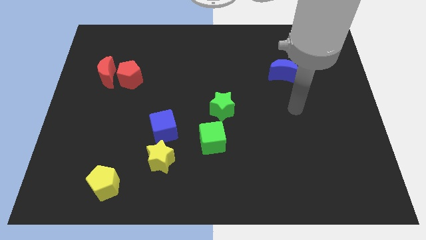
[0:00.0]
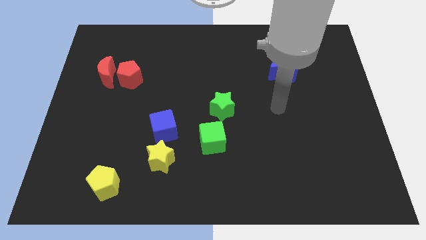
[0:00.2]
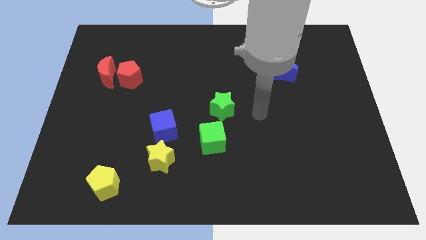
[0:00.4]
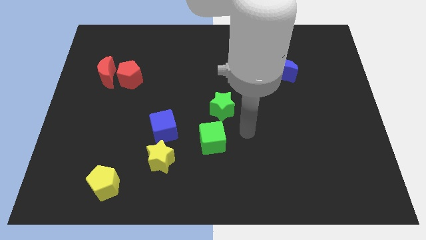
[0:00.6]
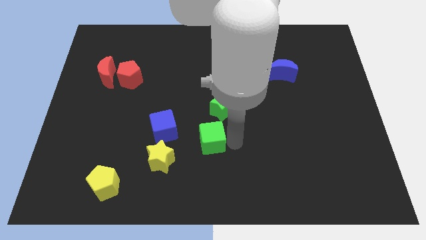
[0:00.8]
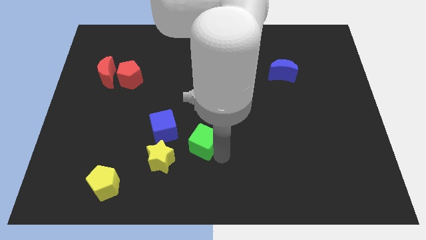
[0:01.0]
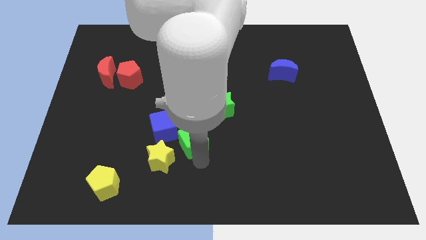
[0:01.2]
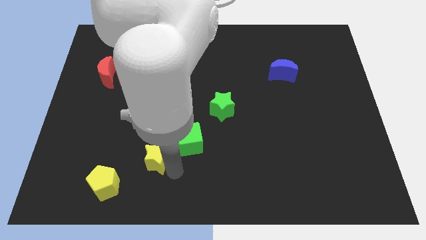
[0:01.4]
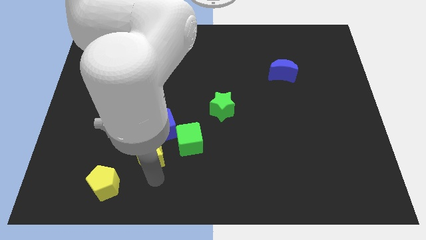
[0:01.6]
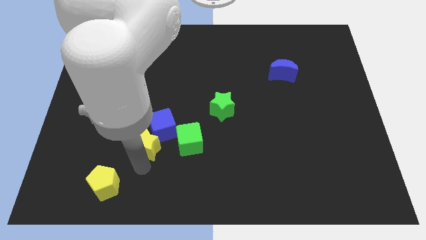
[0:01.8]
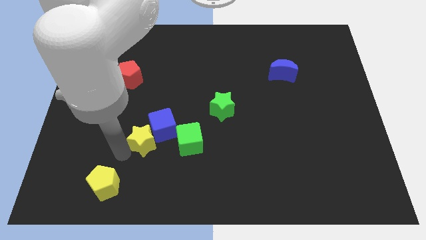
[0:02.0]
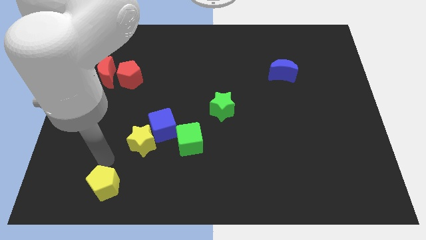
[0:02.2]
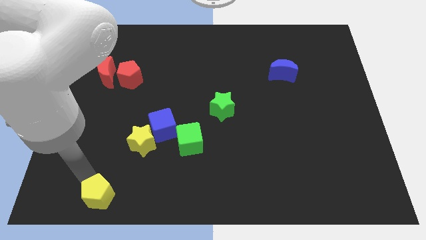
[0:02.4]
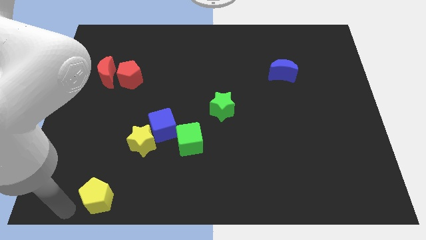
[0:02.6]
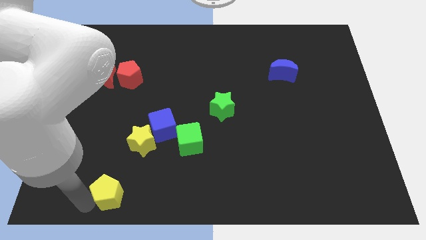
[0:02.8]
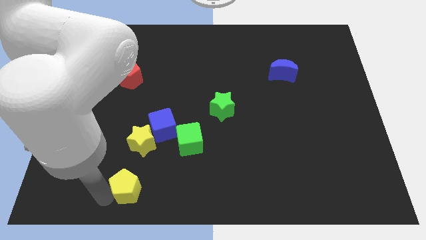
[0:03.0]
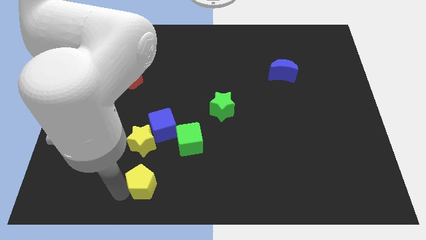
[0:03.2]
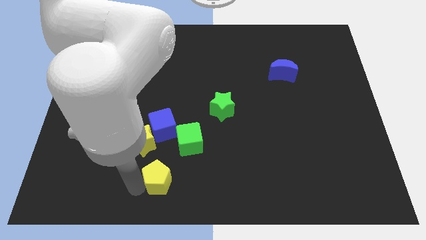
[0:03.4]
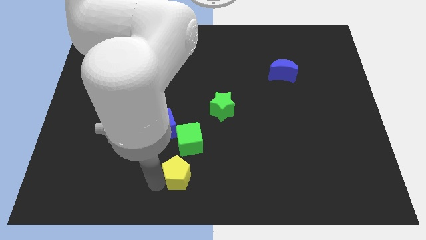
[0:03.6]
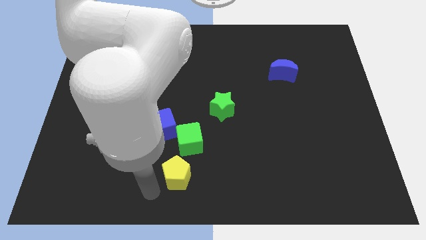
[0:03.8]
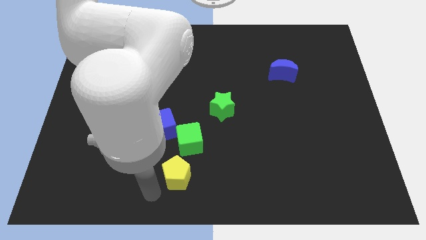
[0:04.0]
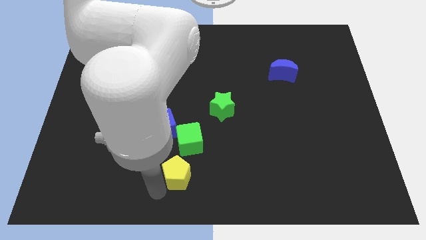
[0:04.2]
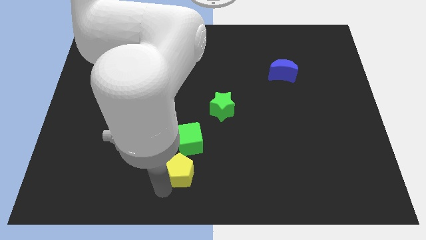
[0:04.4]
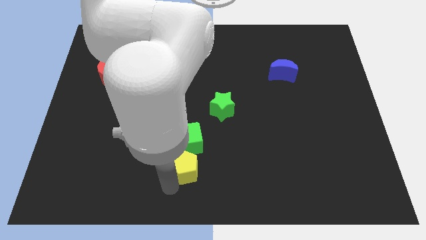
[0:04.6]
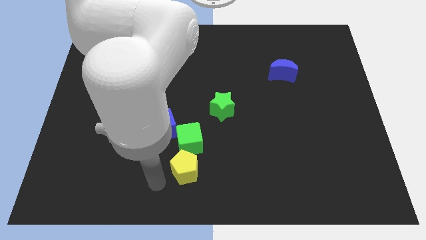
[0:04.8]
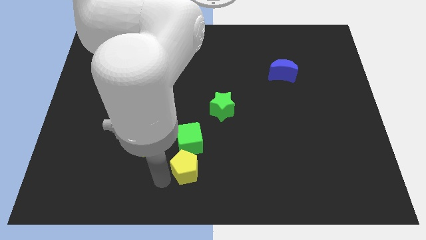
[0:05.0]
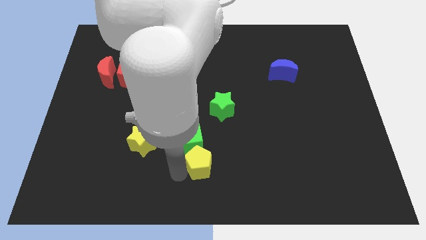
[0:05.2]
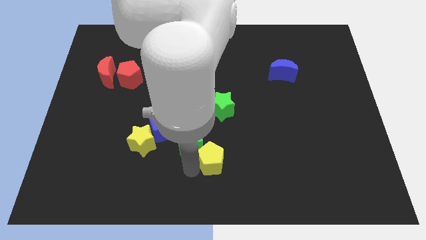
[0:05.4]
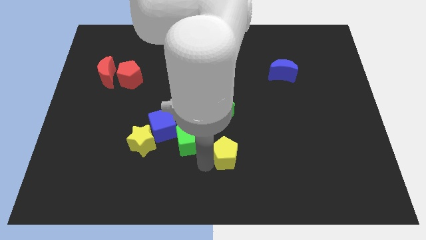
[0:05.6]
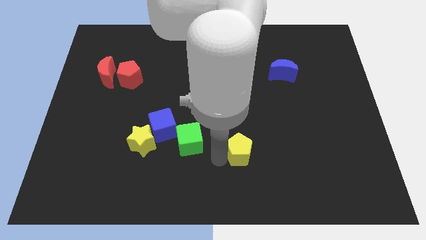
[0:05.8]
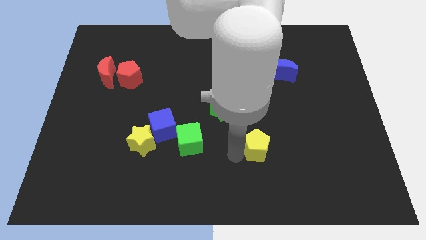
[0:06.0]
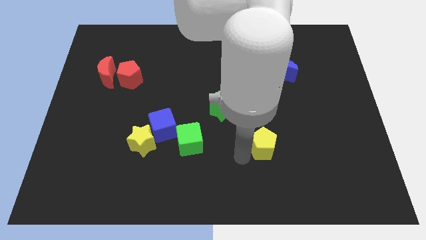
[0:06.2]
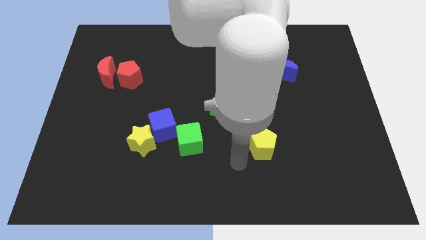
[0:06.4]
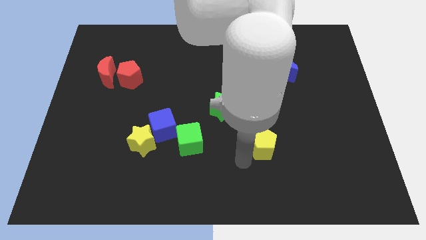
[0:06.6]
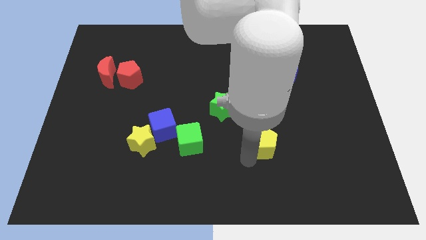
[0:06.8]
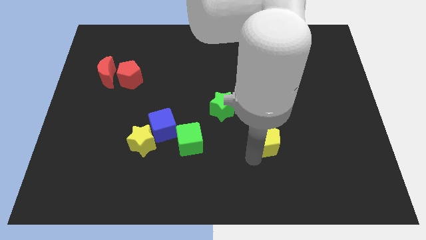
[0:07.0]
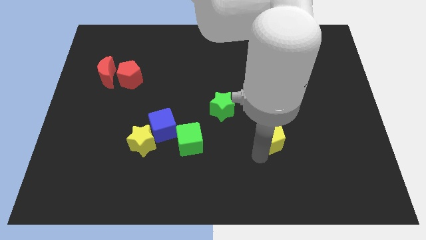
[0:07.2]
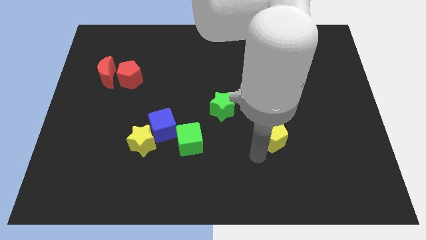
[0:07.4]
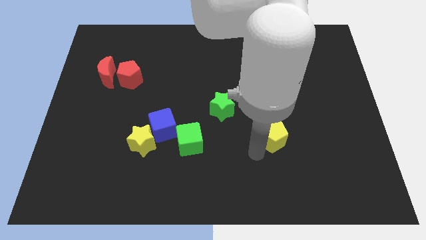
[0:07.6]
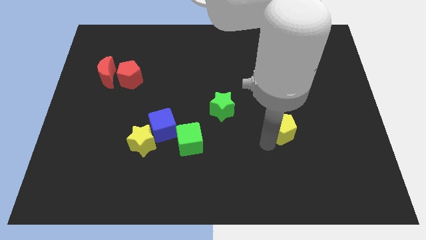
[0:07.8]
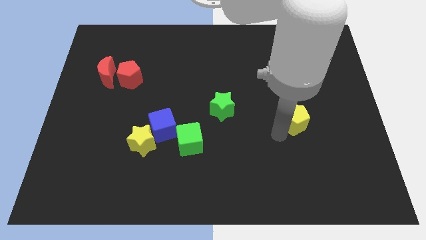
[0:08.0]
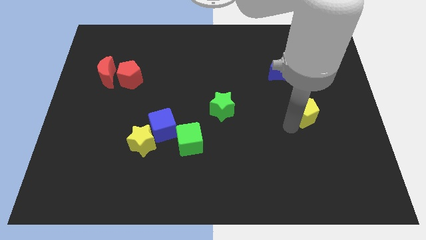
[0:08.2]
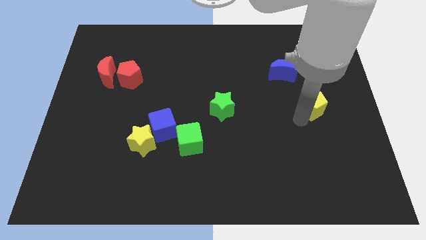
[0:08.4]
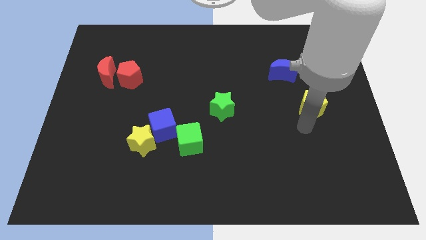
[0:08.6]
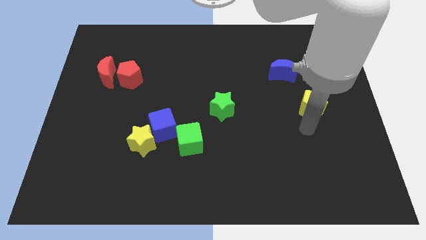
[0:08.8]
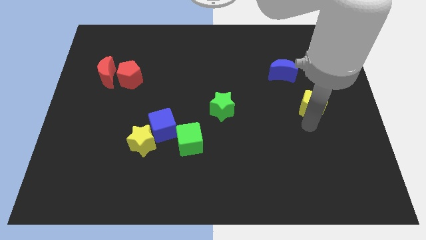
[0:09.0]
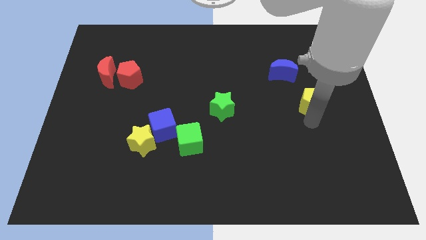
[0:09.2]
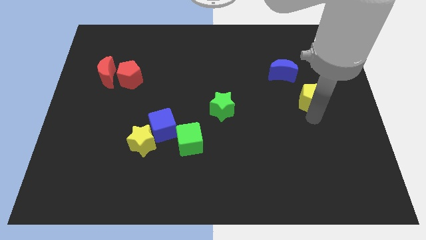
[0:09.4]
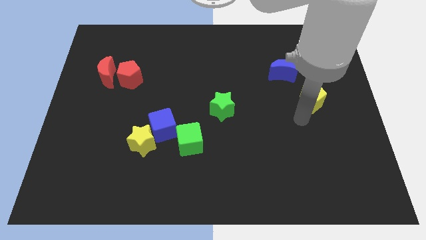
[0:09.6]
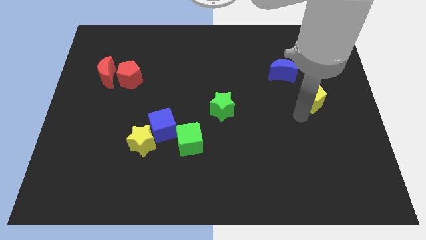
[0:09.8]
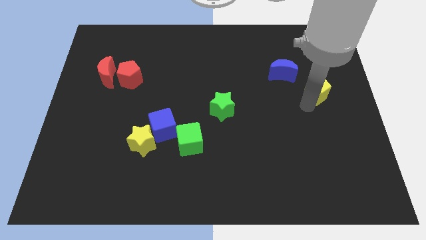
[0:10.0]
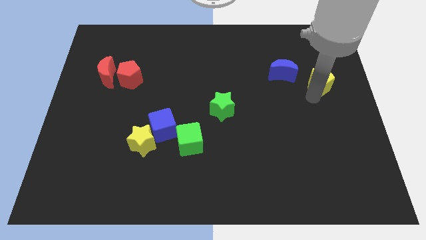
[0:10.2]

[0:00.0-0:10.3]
move the yellow pentagon to the right side of the blue moon

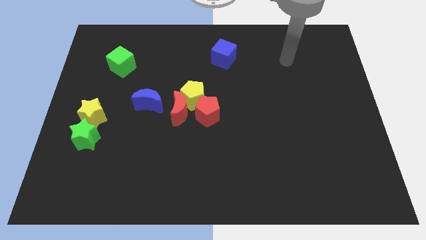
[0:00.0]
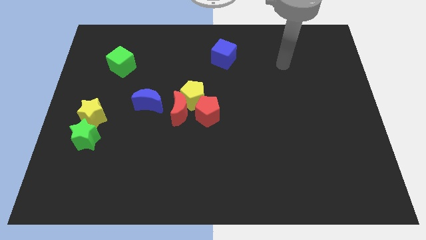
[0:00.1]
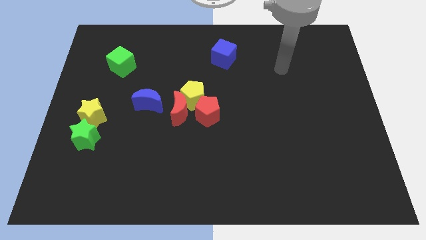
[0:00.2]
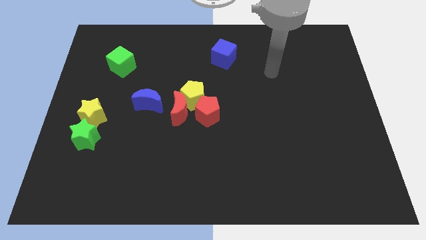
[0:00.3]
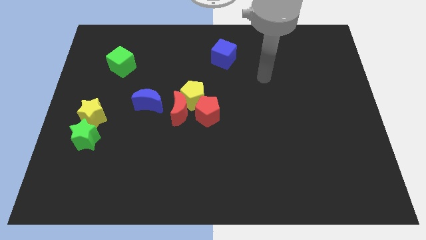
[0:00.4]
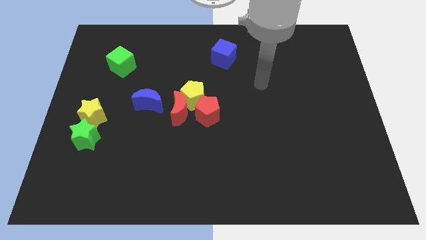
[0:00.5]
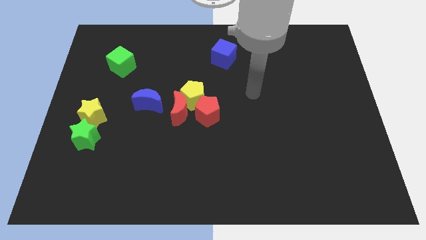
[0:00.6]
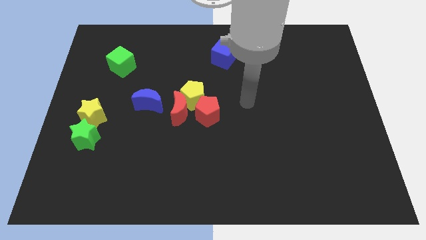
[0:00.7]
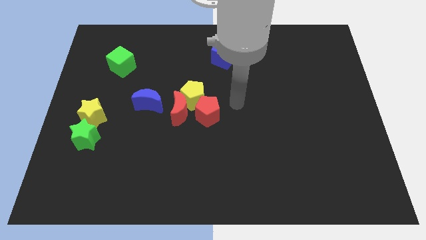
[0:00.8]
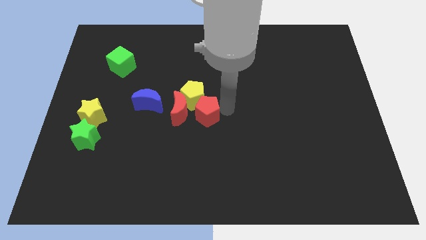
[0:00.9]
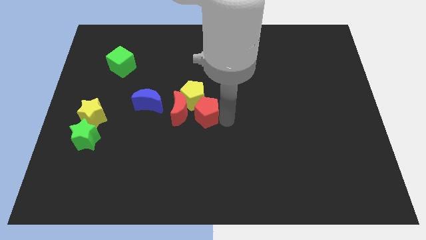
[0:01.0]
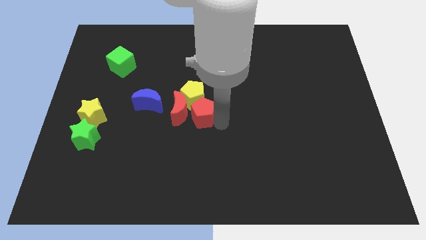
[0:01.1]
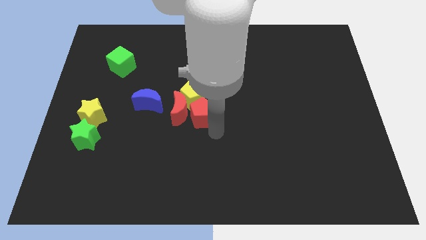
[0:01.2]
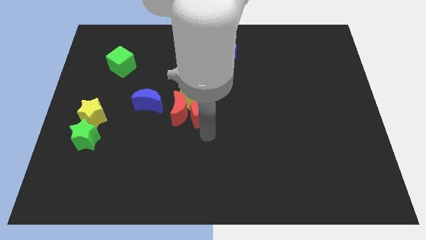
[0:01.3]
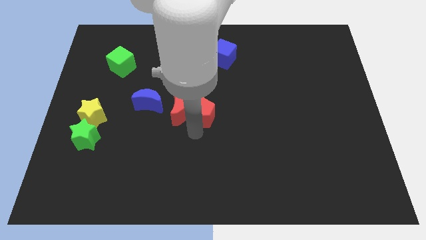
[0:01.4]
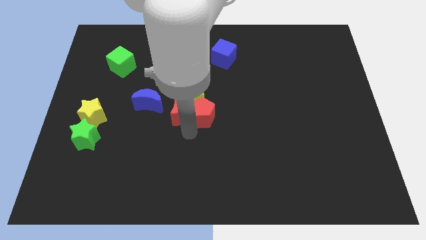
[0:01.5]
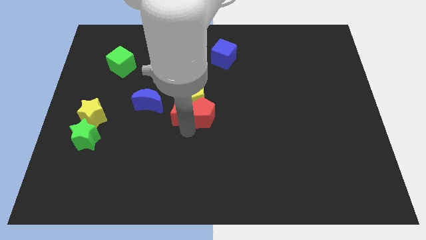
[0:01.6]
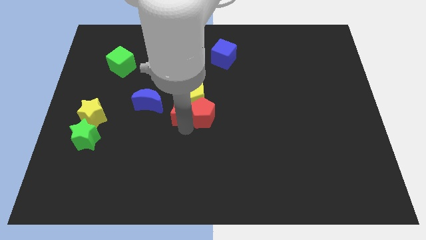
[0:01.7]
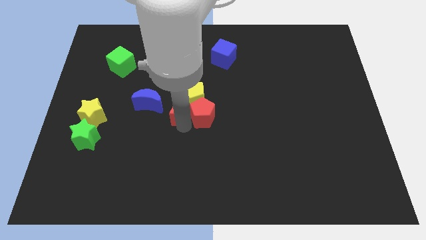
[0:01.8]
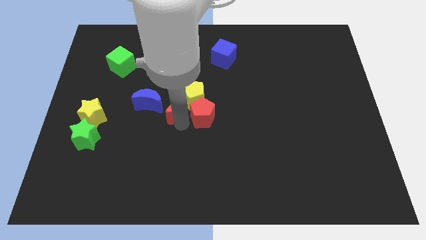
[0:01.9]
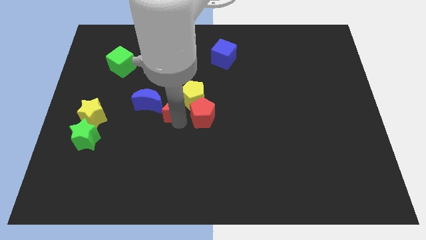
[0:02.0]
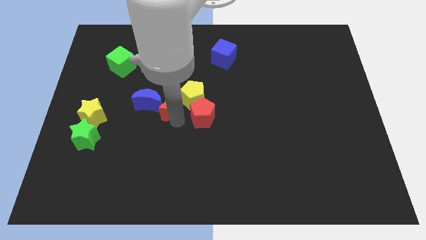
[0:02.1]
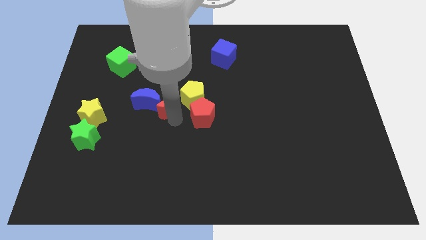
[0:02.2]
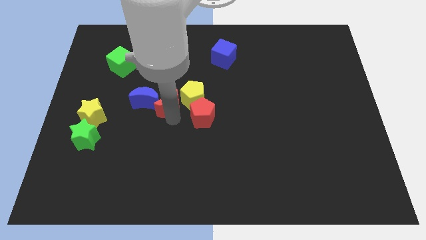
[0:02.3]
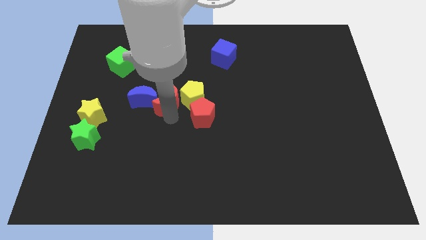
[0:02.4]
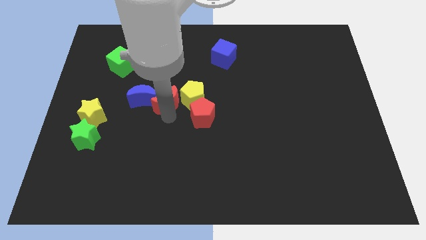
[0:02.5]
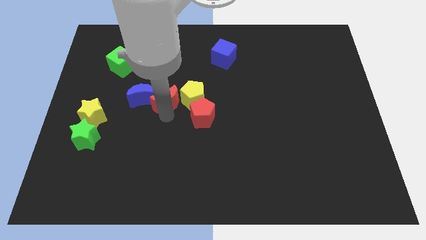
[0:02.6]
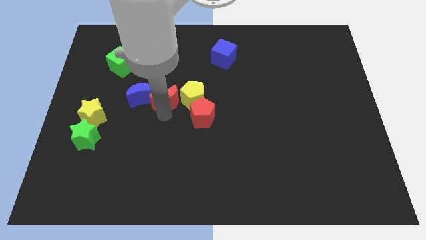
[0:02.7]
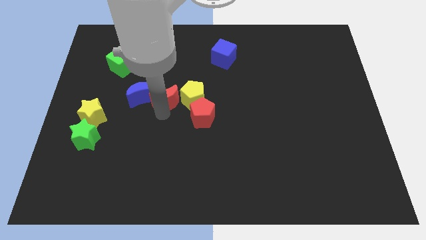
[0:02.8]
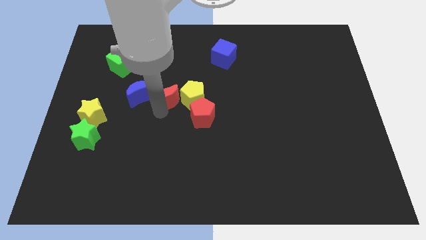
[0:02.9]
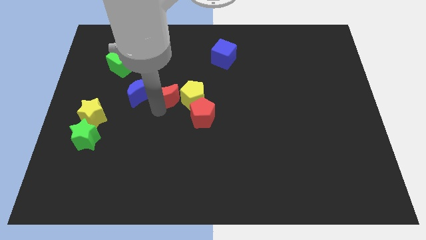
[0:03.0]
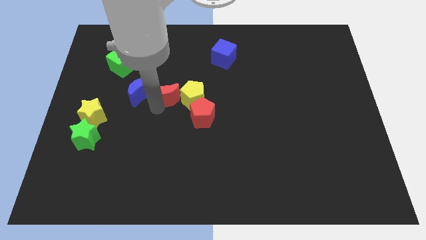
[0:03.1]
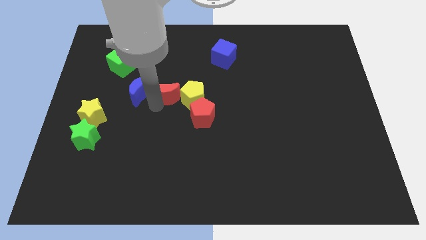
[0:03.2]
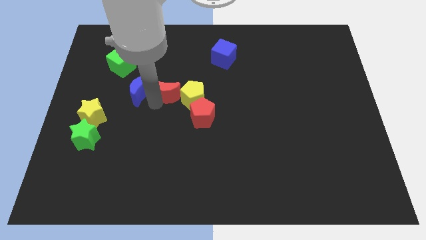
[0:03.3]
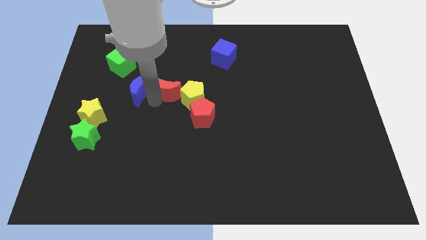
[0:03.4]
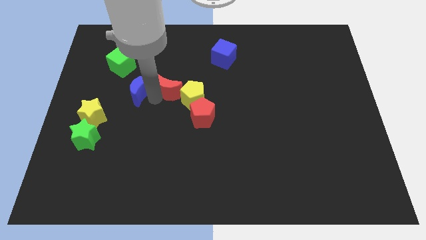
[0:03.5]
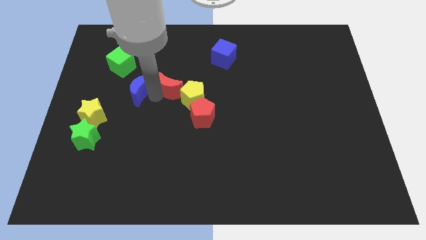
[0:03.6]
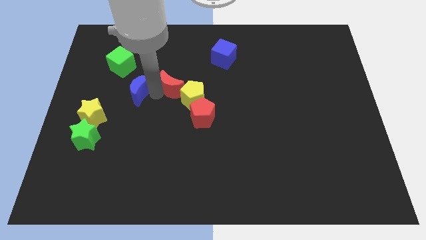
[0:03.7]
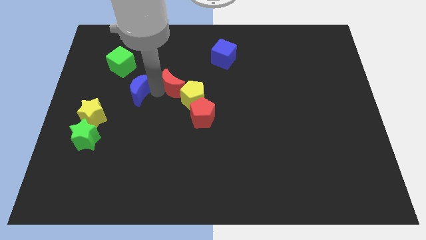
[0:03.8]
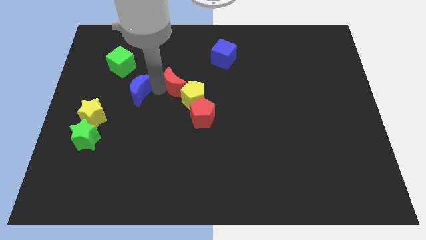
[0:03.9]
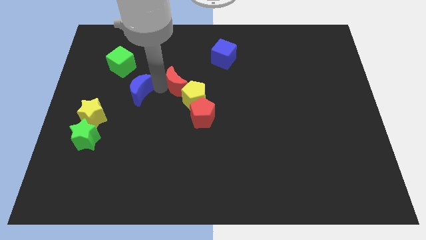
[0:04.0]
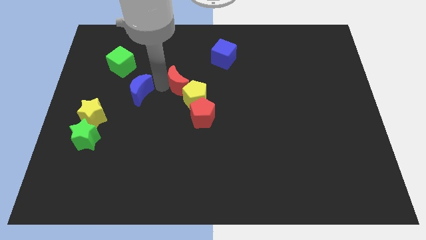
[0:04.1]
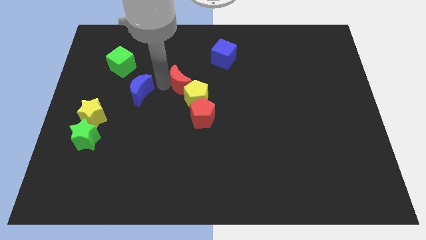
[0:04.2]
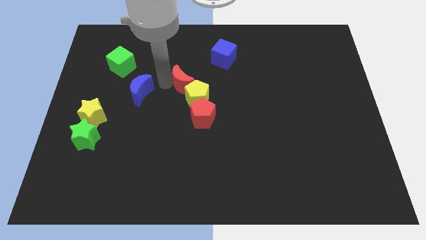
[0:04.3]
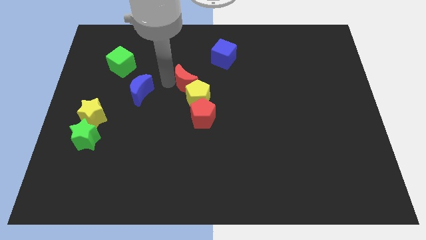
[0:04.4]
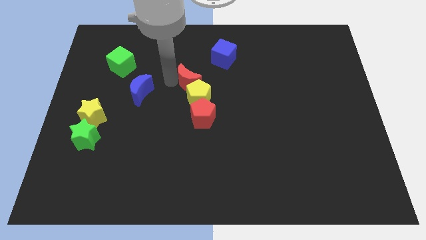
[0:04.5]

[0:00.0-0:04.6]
put the red moon to the bottom left side of the blue cube
